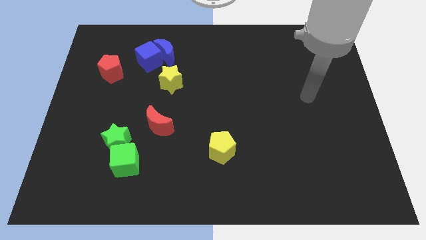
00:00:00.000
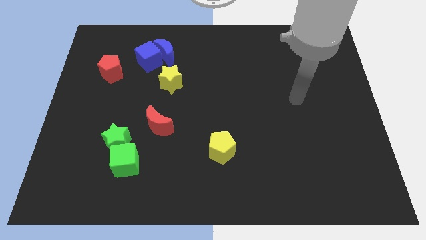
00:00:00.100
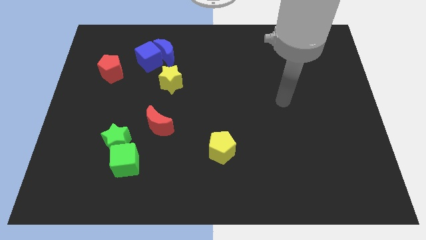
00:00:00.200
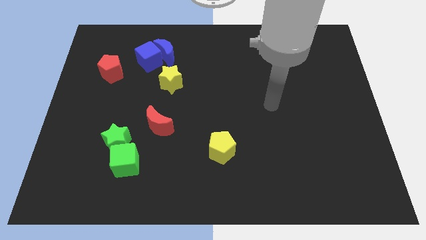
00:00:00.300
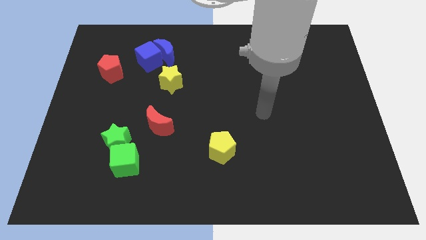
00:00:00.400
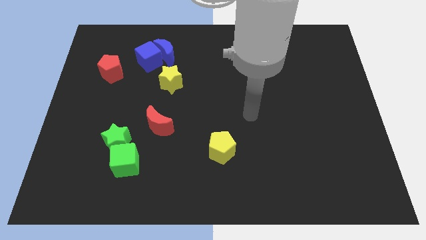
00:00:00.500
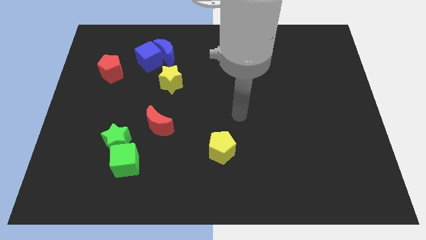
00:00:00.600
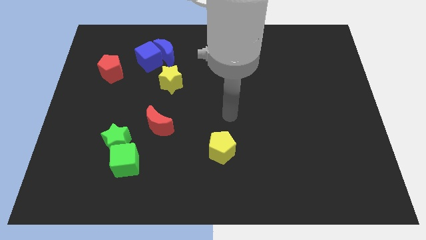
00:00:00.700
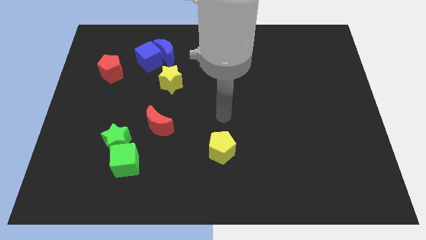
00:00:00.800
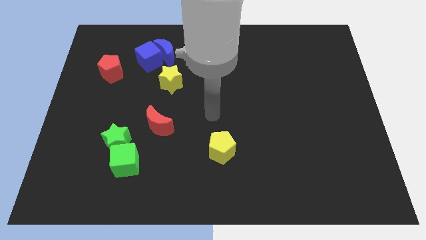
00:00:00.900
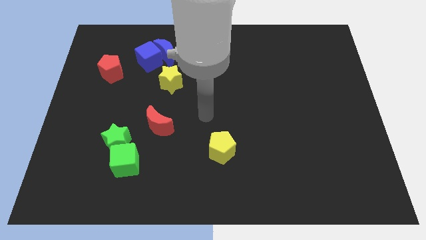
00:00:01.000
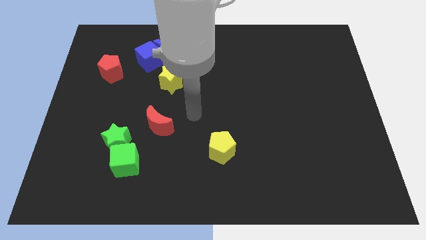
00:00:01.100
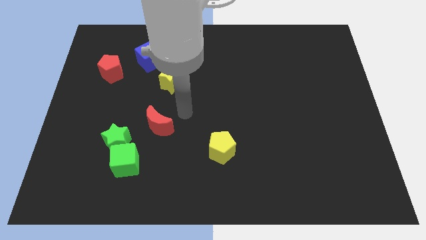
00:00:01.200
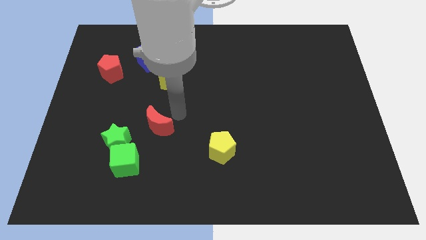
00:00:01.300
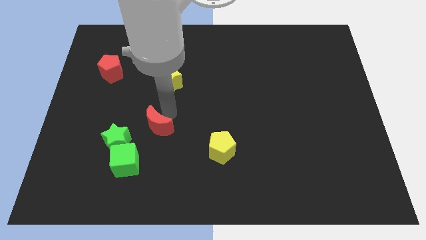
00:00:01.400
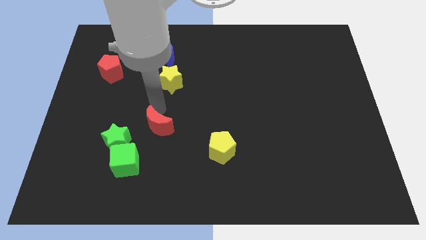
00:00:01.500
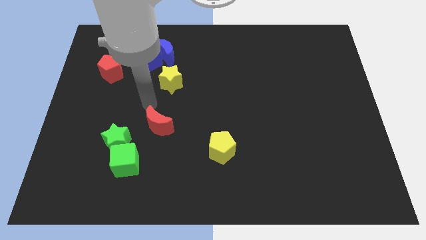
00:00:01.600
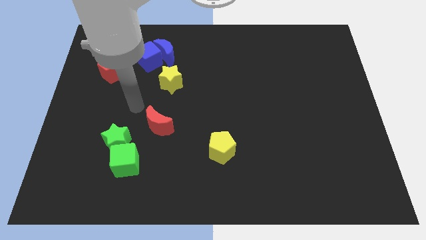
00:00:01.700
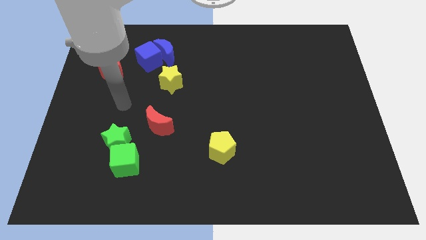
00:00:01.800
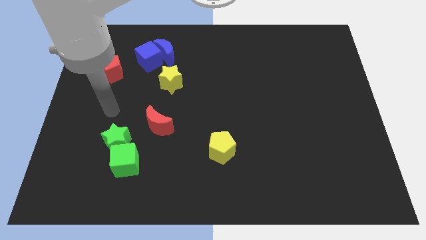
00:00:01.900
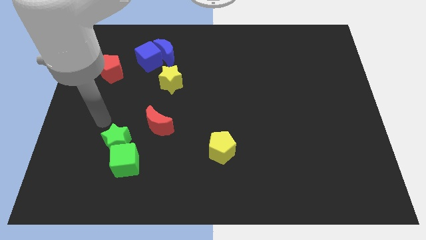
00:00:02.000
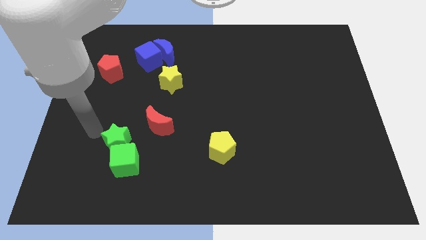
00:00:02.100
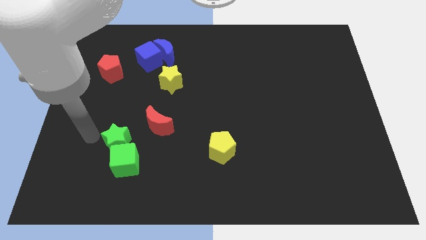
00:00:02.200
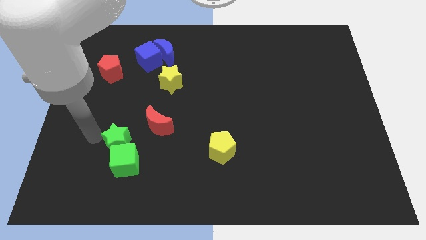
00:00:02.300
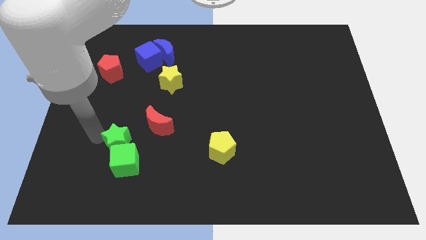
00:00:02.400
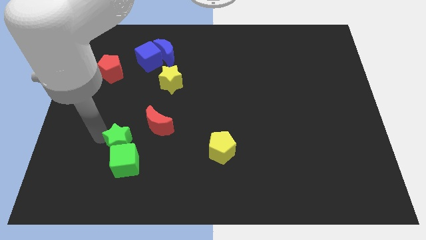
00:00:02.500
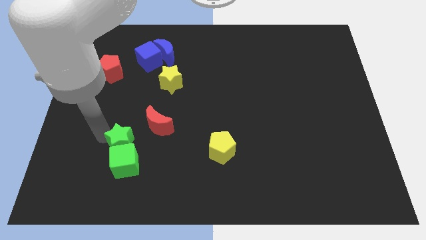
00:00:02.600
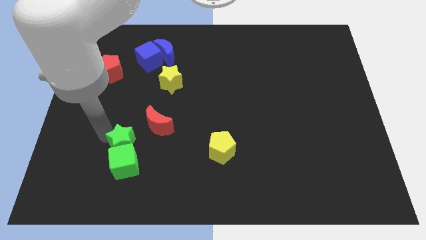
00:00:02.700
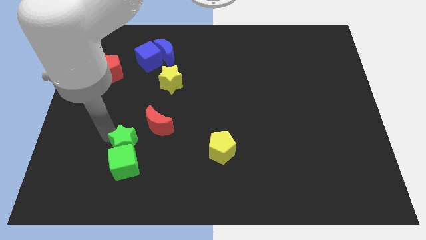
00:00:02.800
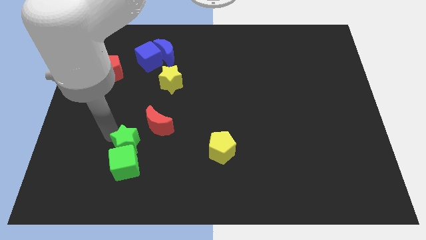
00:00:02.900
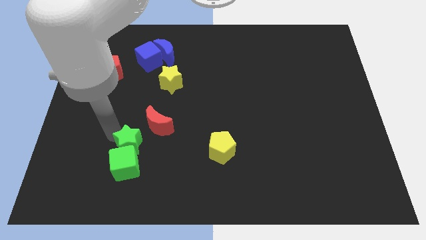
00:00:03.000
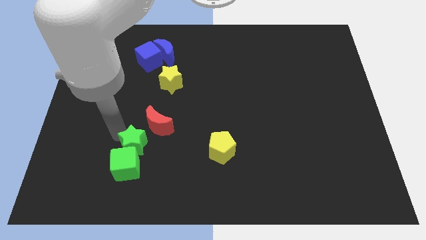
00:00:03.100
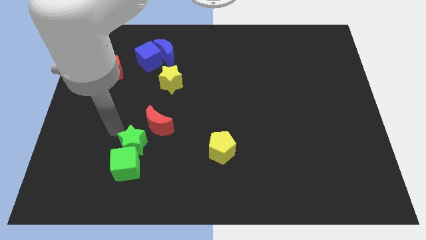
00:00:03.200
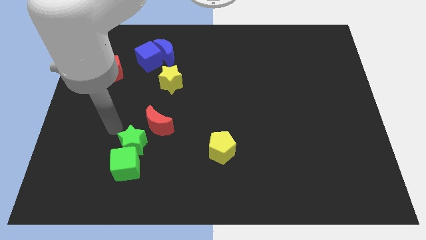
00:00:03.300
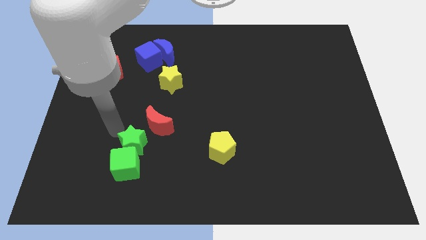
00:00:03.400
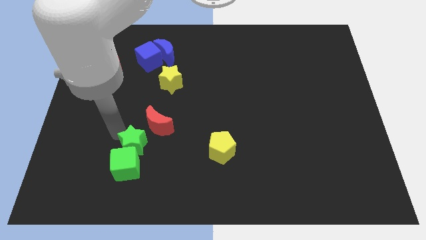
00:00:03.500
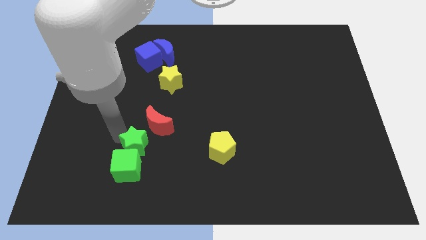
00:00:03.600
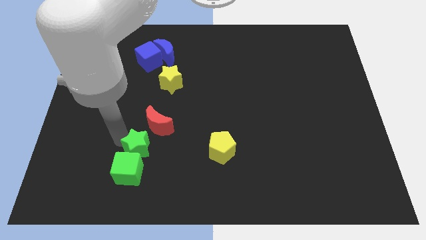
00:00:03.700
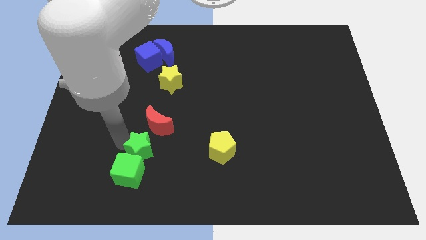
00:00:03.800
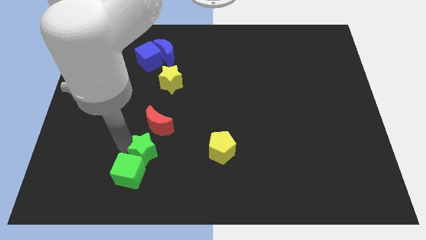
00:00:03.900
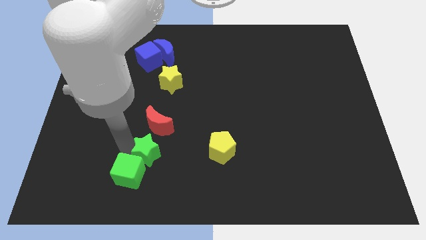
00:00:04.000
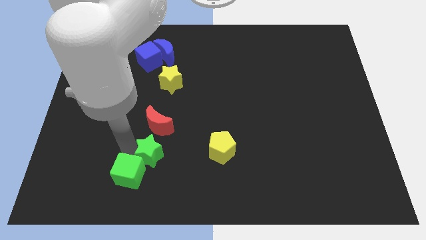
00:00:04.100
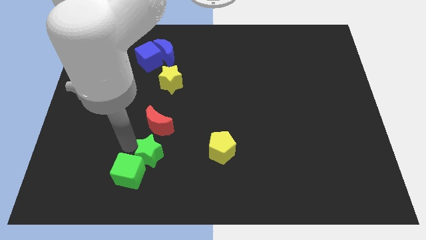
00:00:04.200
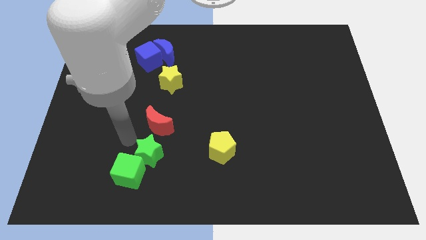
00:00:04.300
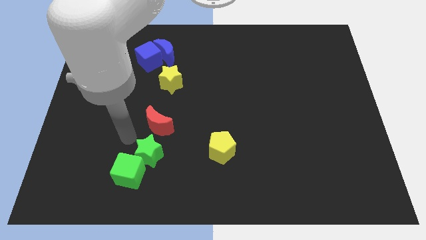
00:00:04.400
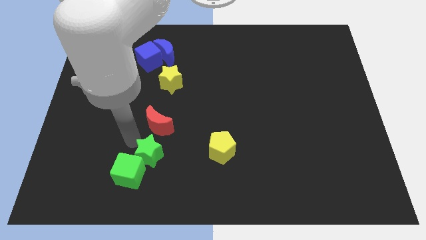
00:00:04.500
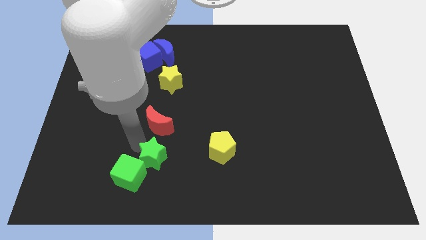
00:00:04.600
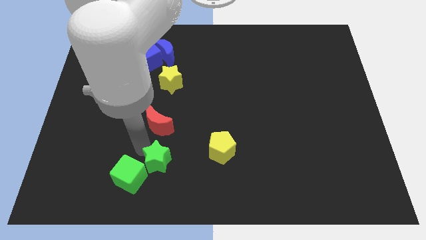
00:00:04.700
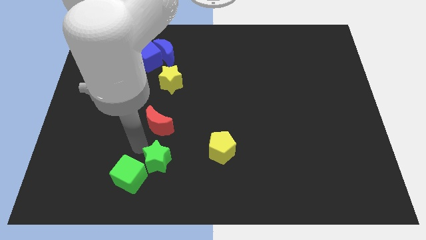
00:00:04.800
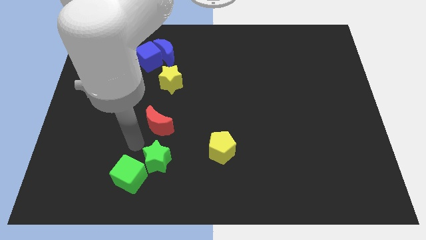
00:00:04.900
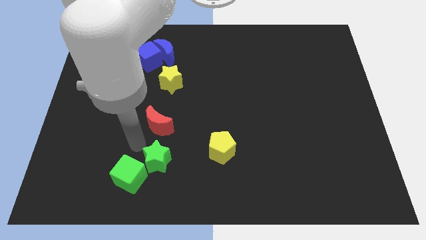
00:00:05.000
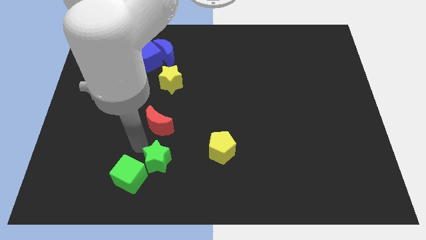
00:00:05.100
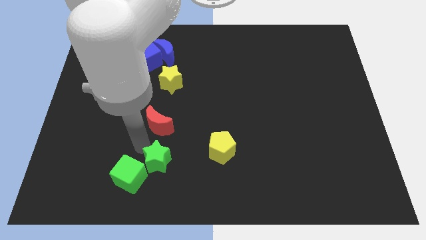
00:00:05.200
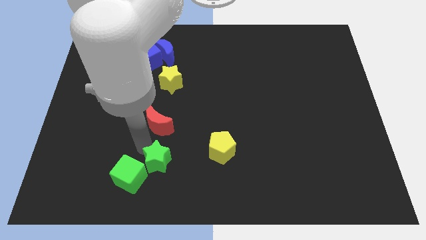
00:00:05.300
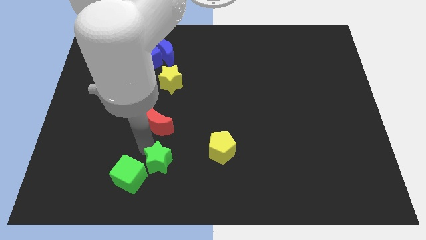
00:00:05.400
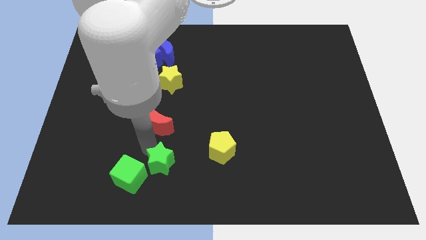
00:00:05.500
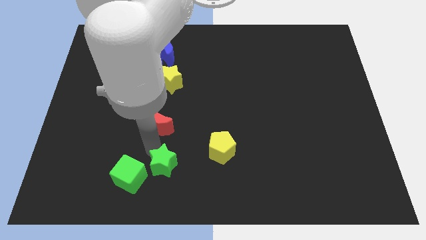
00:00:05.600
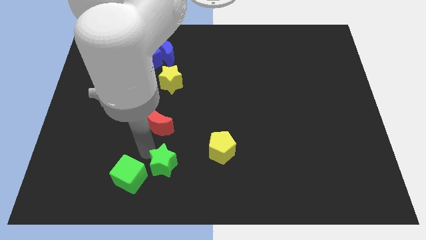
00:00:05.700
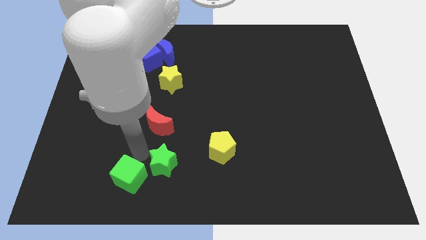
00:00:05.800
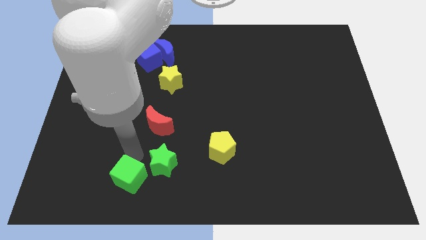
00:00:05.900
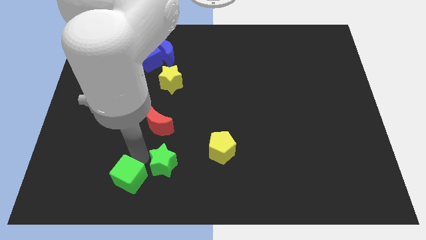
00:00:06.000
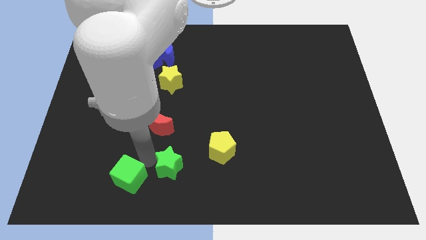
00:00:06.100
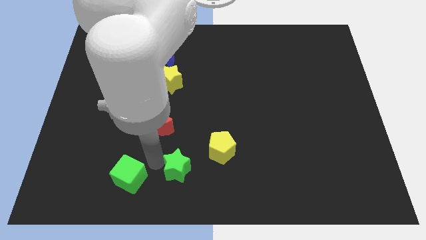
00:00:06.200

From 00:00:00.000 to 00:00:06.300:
put the green star to the bottom left side of the yellow pentagon
